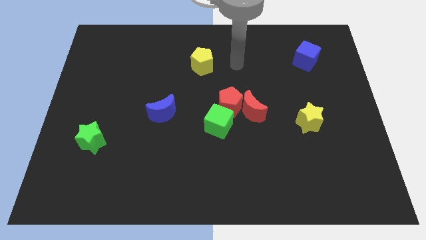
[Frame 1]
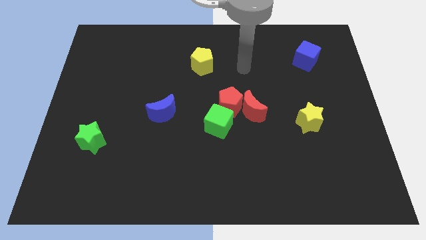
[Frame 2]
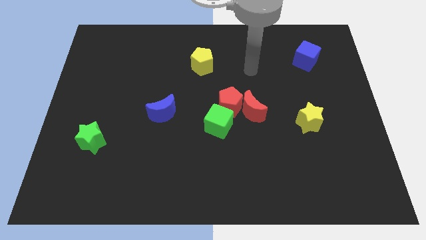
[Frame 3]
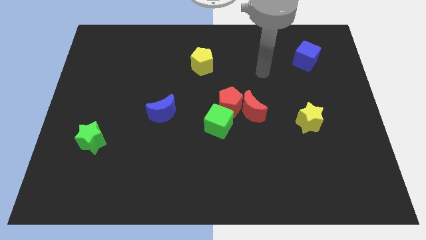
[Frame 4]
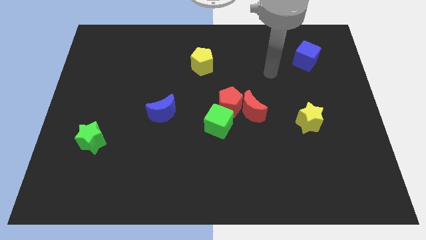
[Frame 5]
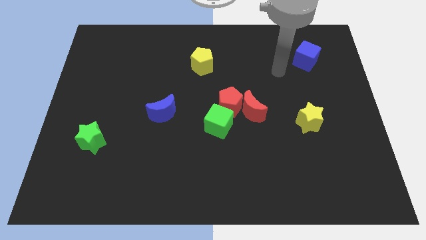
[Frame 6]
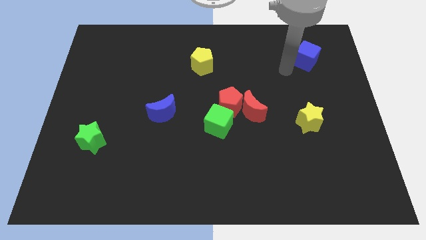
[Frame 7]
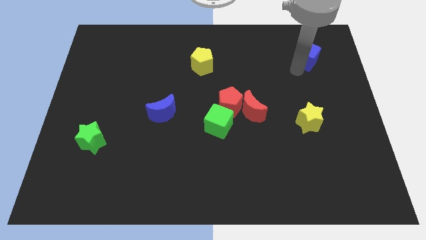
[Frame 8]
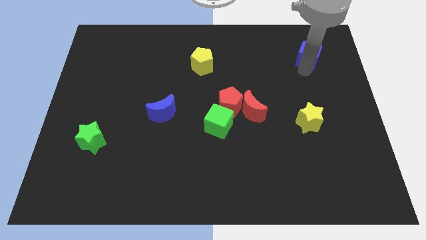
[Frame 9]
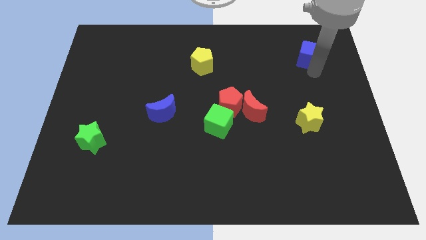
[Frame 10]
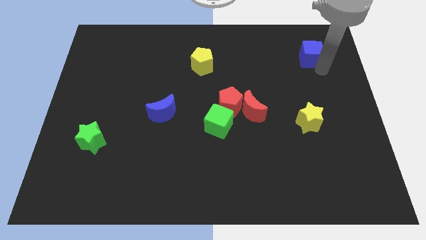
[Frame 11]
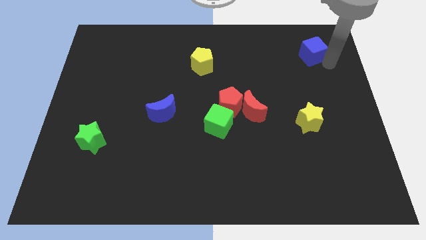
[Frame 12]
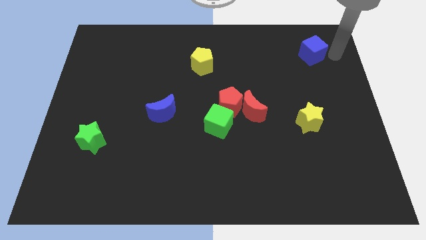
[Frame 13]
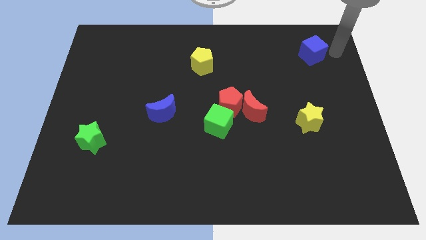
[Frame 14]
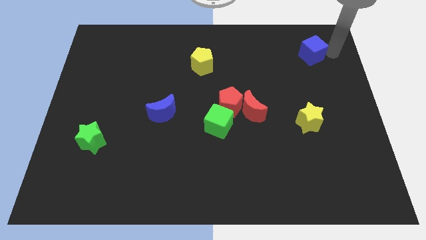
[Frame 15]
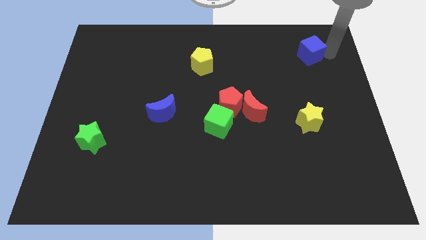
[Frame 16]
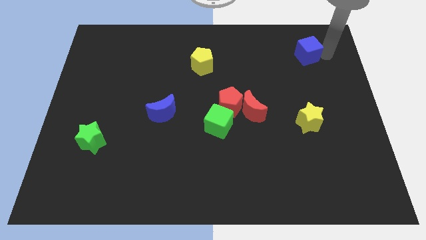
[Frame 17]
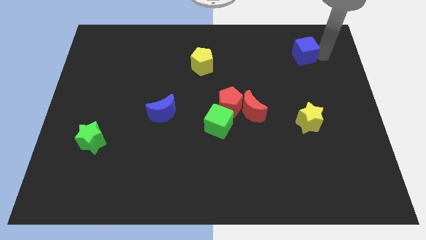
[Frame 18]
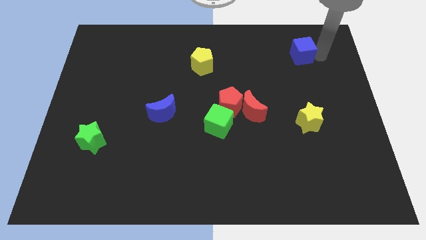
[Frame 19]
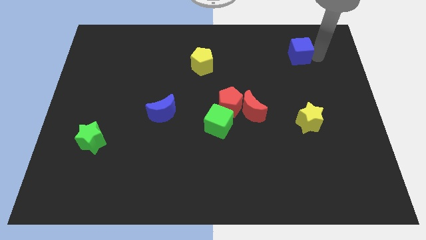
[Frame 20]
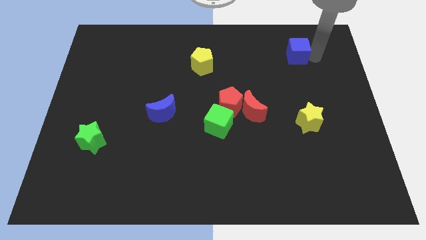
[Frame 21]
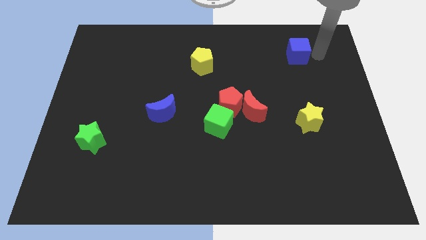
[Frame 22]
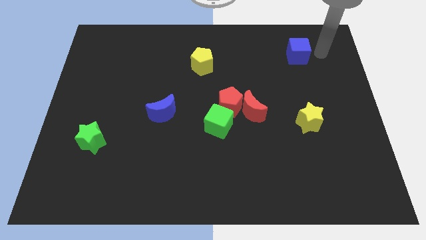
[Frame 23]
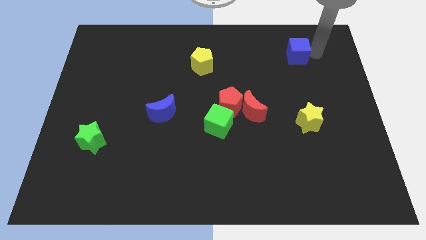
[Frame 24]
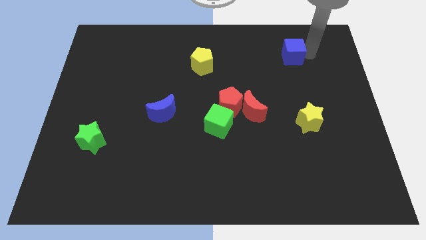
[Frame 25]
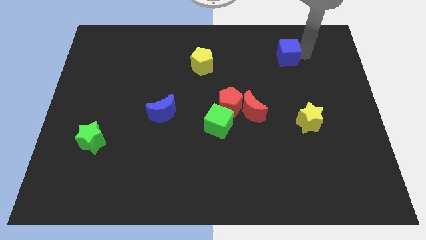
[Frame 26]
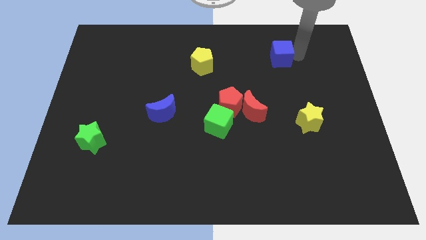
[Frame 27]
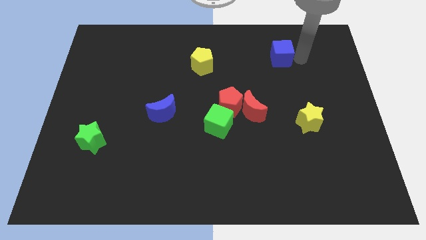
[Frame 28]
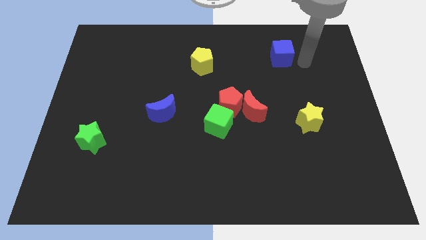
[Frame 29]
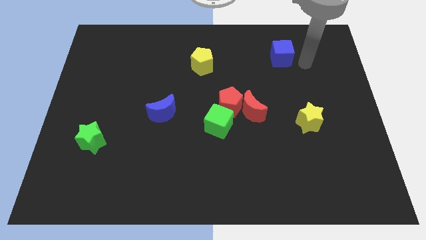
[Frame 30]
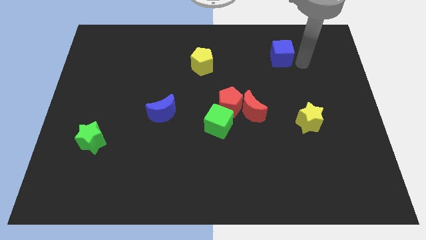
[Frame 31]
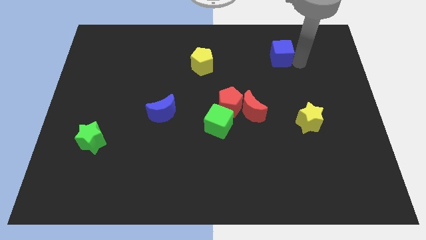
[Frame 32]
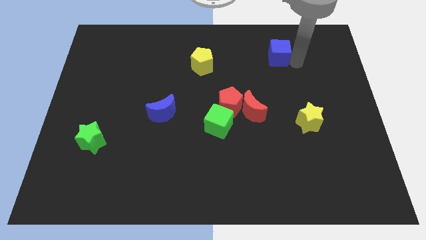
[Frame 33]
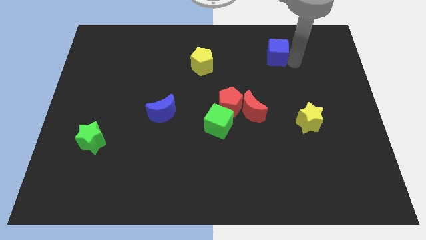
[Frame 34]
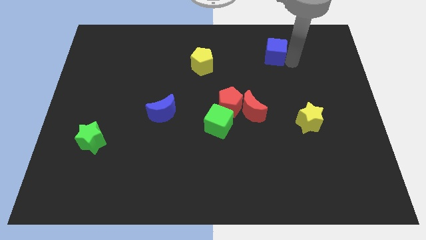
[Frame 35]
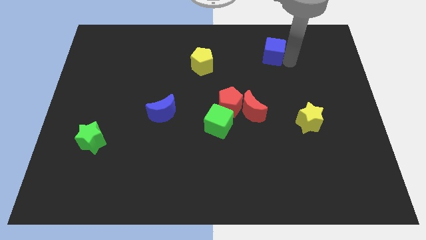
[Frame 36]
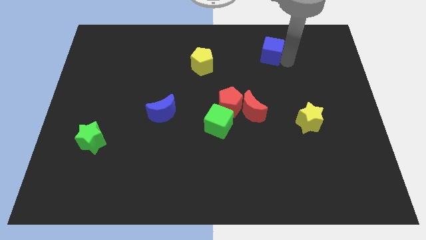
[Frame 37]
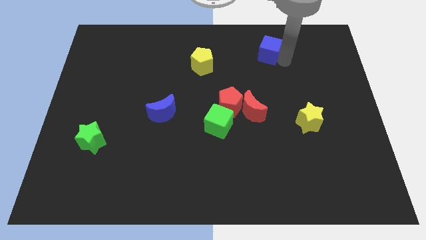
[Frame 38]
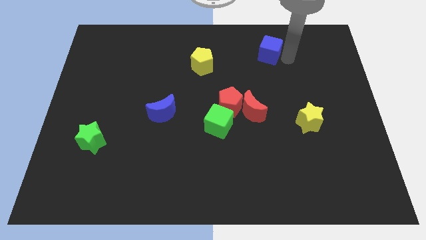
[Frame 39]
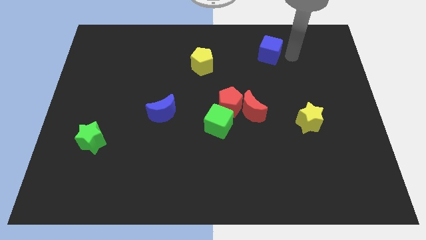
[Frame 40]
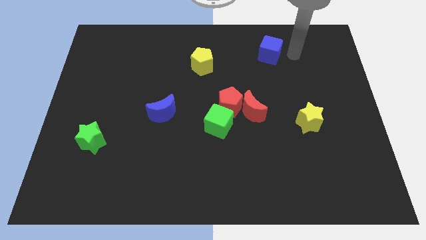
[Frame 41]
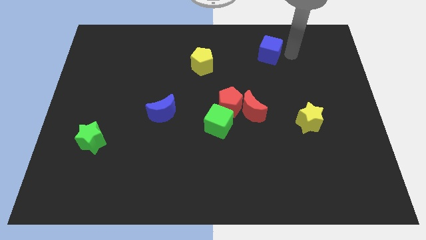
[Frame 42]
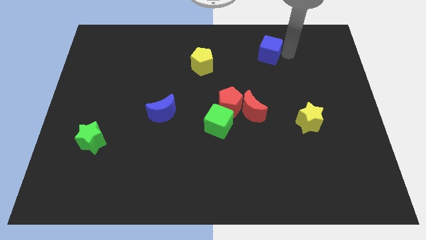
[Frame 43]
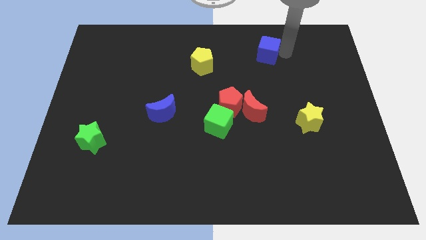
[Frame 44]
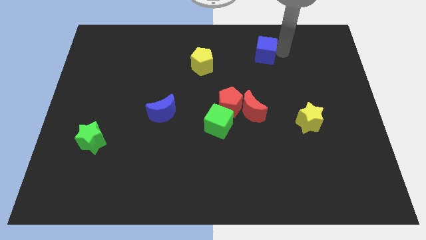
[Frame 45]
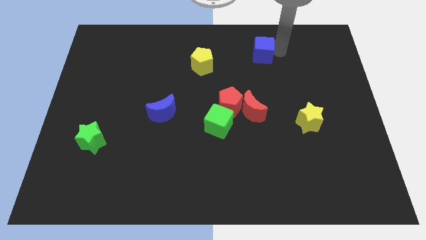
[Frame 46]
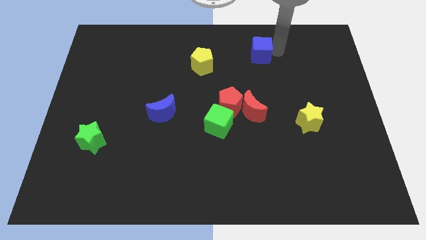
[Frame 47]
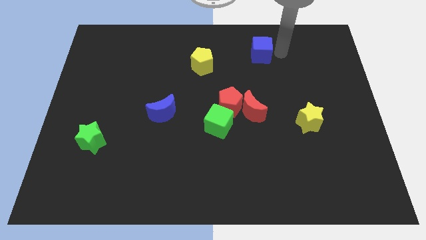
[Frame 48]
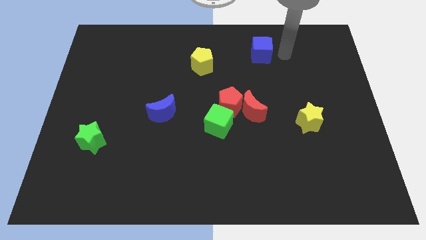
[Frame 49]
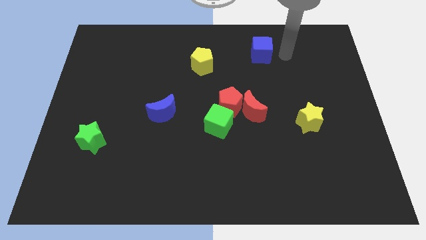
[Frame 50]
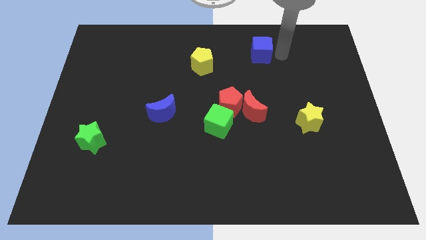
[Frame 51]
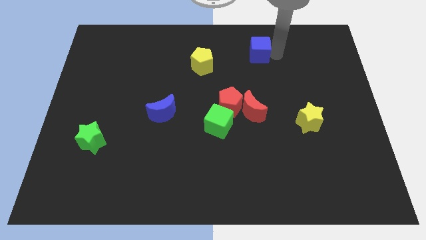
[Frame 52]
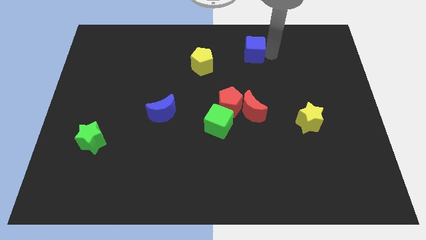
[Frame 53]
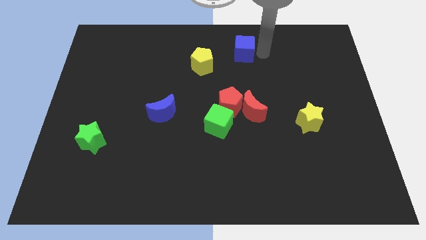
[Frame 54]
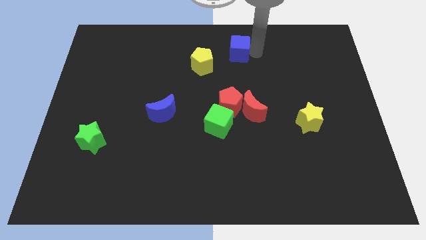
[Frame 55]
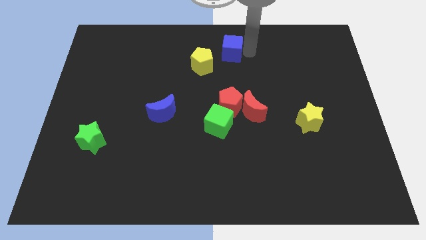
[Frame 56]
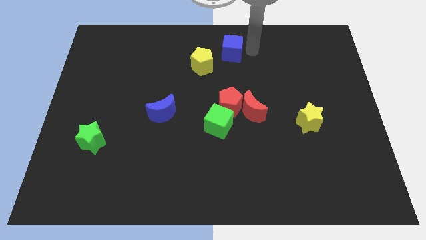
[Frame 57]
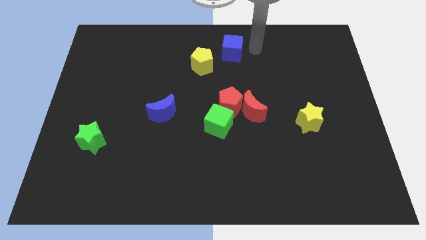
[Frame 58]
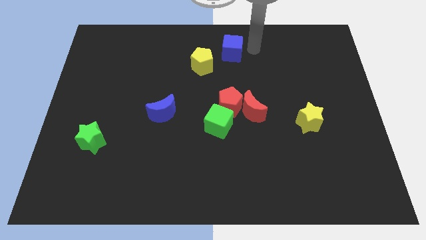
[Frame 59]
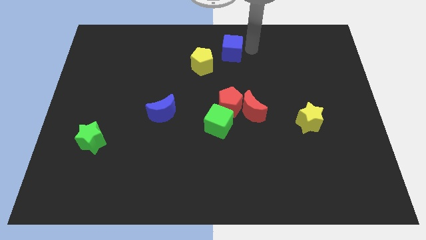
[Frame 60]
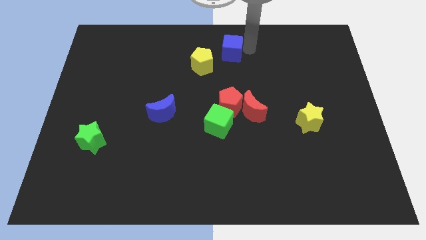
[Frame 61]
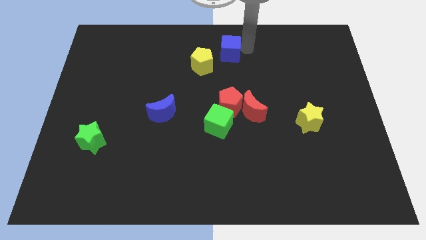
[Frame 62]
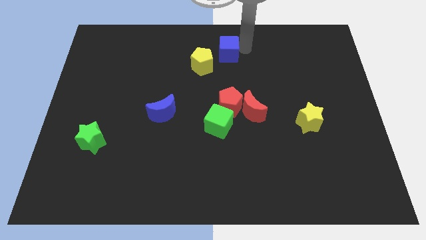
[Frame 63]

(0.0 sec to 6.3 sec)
push the blue cube to the left

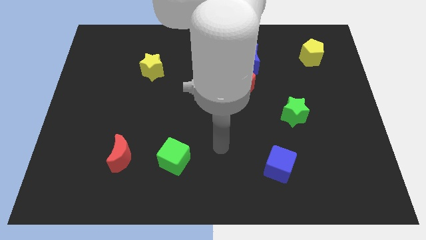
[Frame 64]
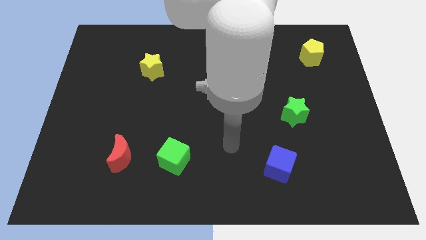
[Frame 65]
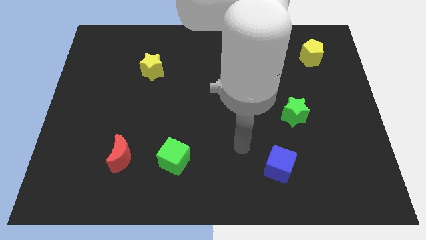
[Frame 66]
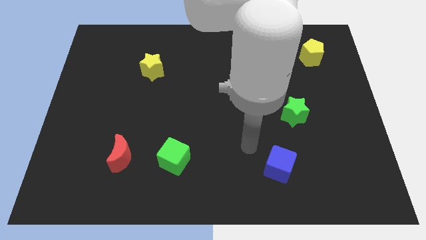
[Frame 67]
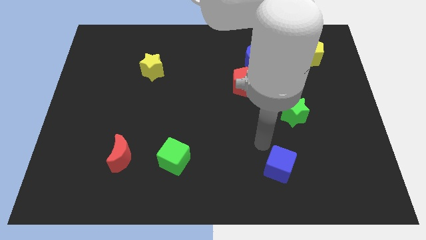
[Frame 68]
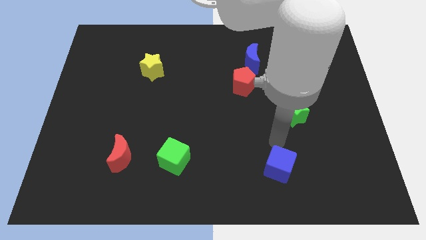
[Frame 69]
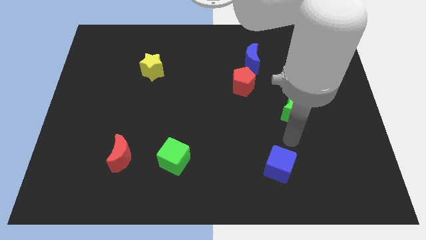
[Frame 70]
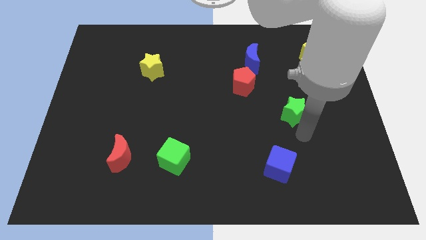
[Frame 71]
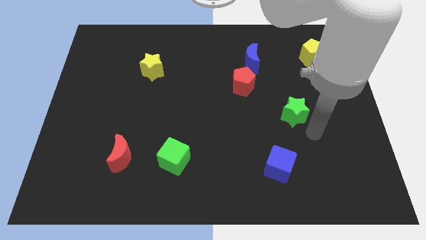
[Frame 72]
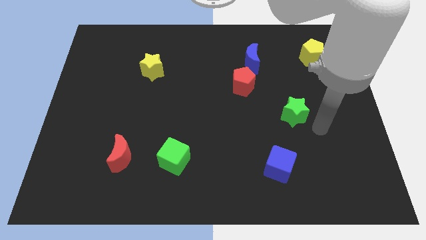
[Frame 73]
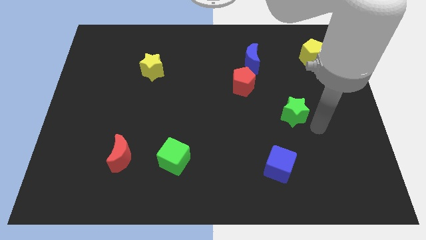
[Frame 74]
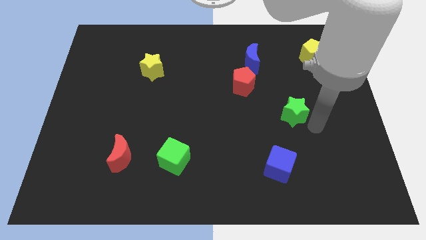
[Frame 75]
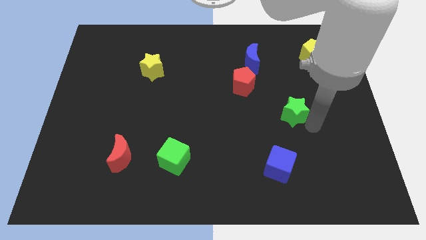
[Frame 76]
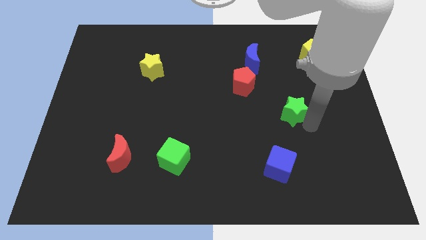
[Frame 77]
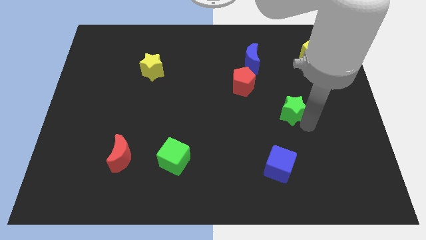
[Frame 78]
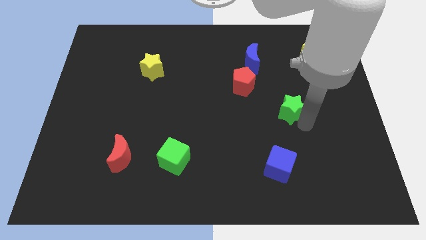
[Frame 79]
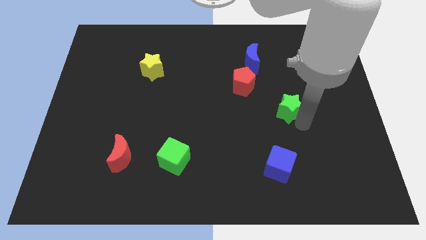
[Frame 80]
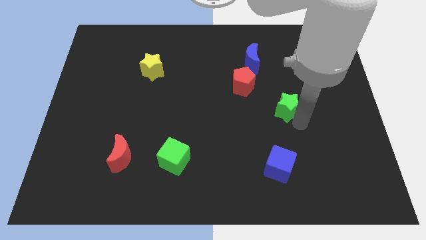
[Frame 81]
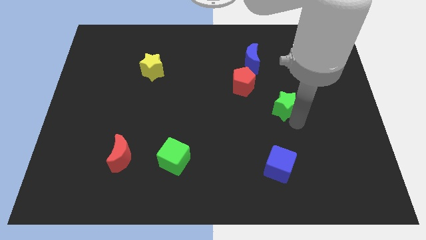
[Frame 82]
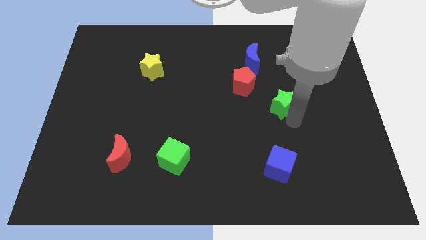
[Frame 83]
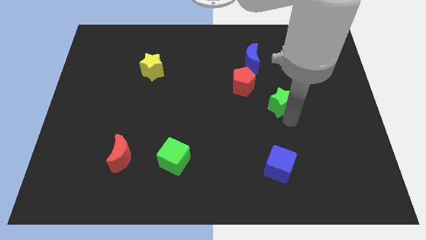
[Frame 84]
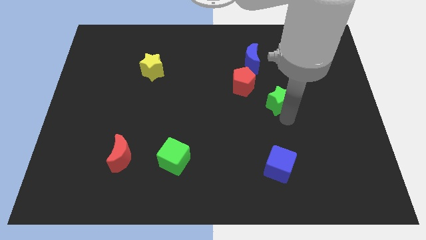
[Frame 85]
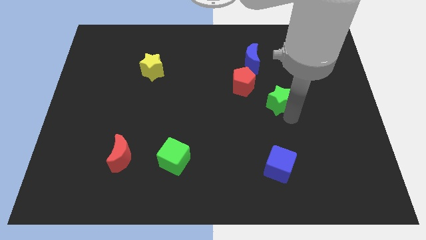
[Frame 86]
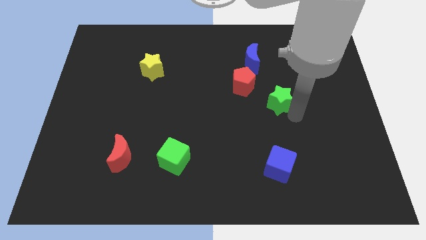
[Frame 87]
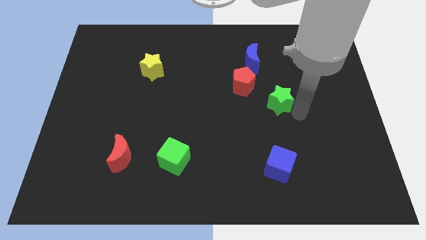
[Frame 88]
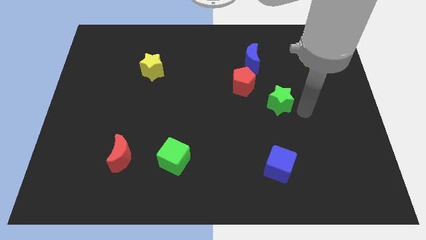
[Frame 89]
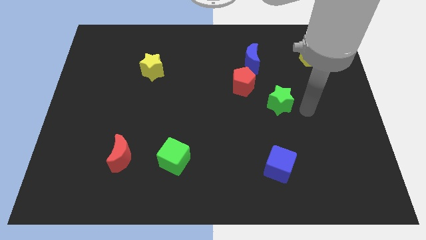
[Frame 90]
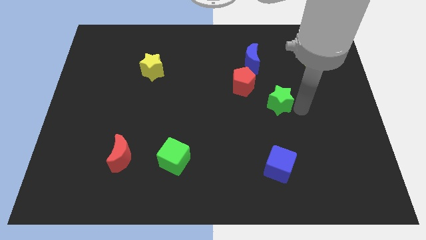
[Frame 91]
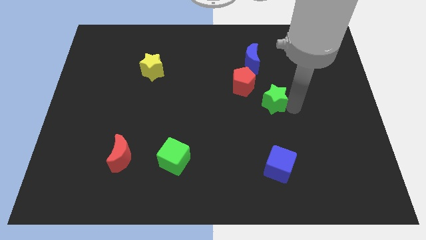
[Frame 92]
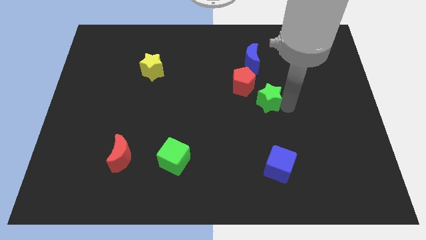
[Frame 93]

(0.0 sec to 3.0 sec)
slightly move the green star up and left diagonally
